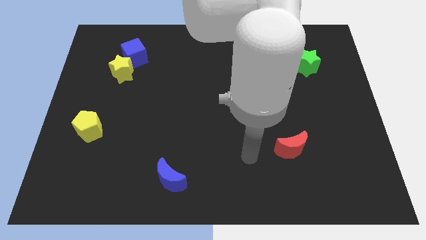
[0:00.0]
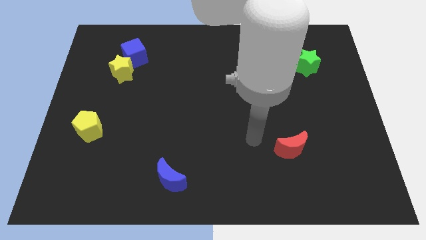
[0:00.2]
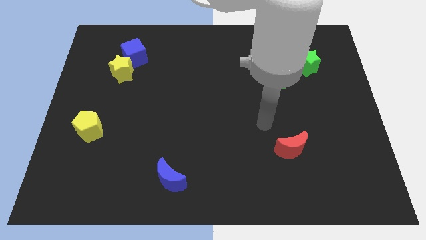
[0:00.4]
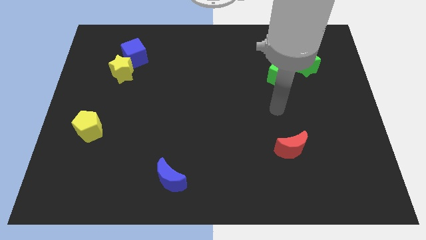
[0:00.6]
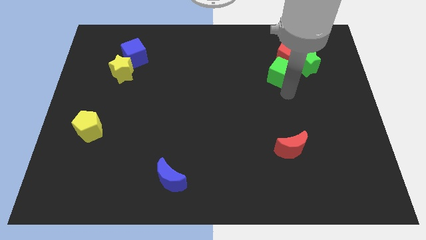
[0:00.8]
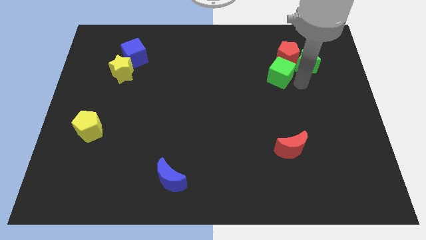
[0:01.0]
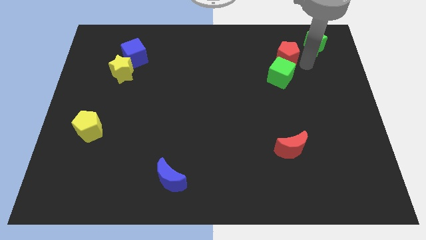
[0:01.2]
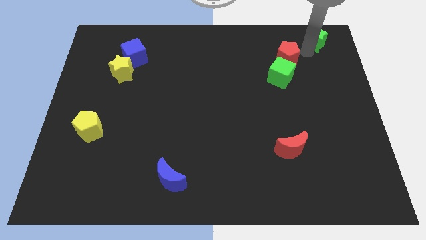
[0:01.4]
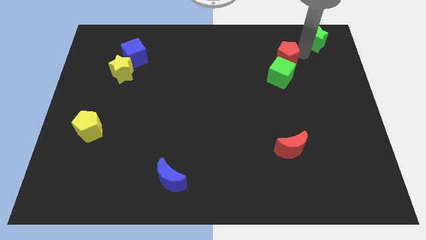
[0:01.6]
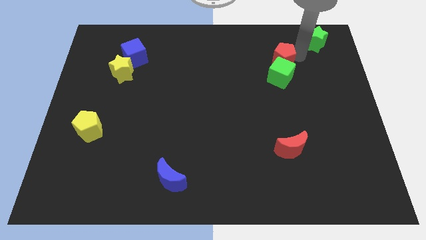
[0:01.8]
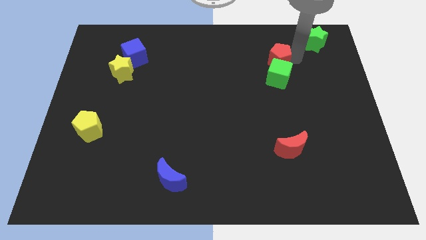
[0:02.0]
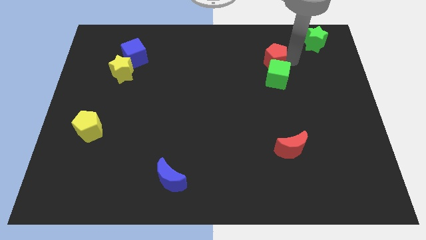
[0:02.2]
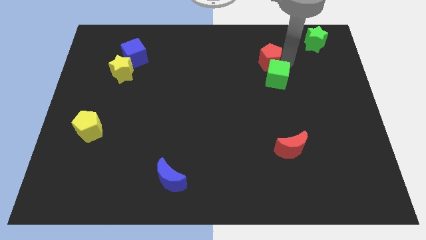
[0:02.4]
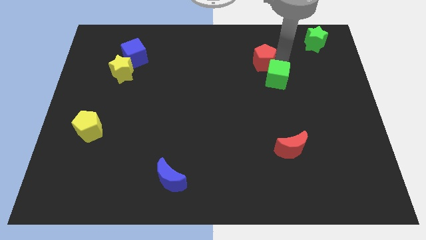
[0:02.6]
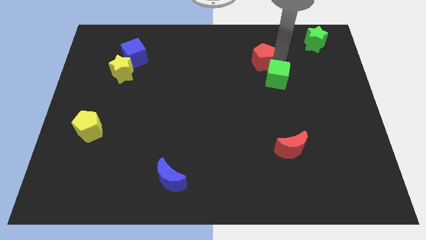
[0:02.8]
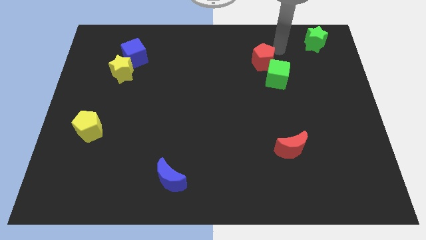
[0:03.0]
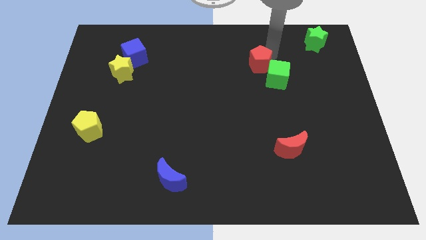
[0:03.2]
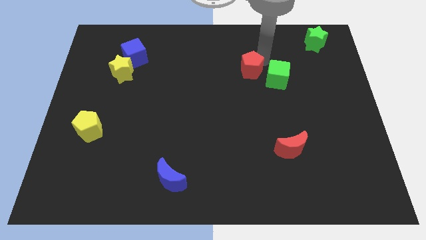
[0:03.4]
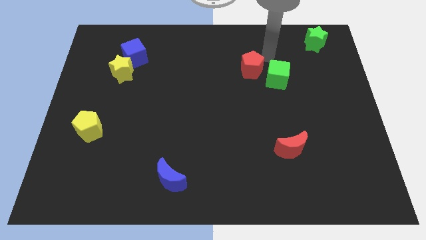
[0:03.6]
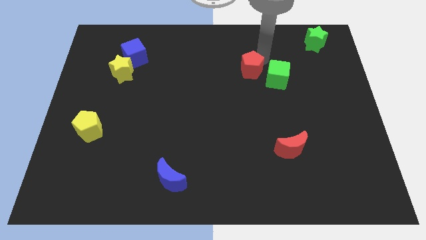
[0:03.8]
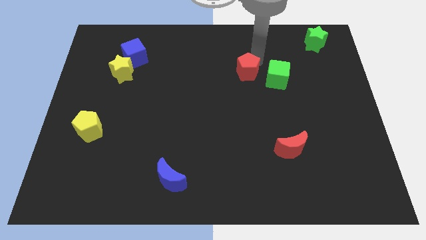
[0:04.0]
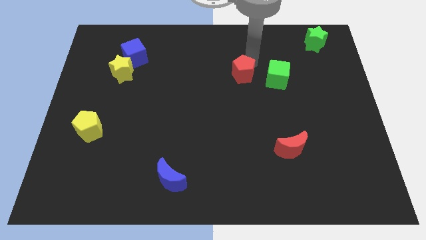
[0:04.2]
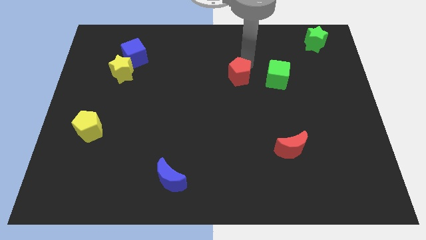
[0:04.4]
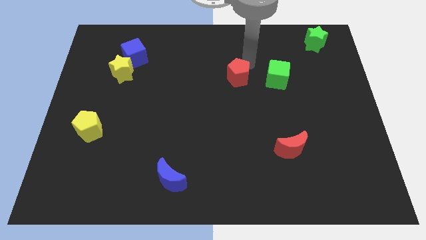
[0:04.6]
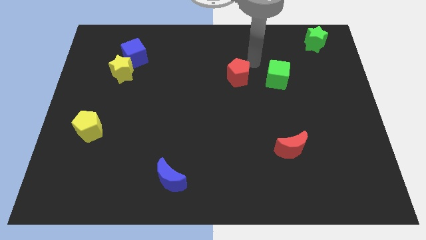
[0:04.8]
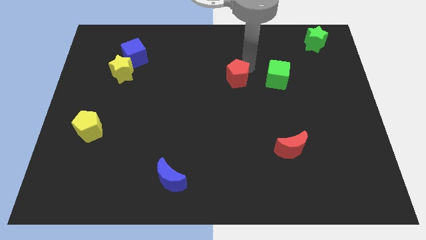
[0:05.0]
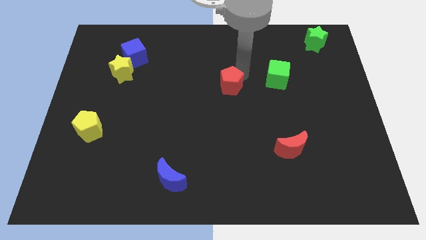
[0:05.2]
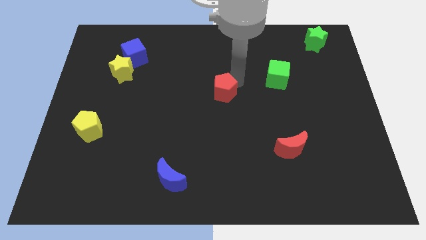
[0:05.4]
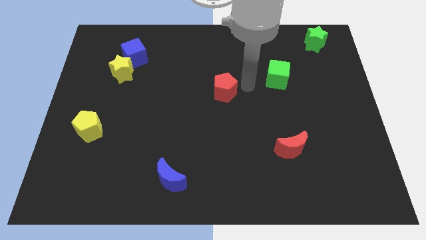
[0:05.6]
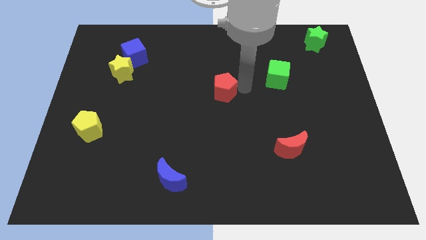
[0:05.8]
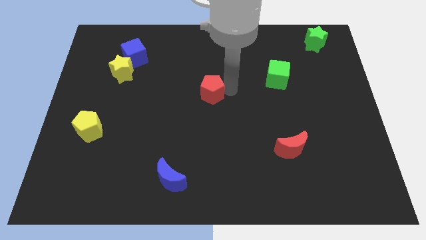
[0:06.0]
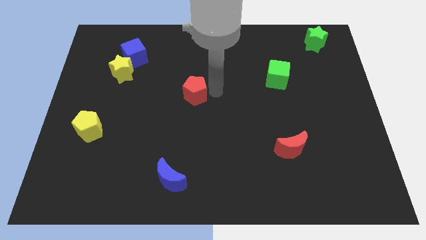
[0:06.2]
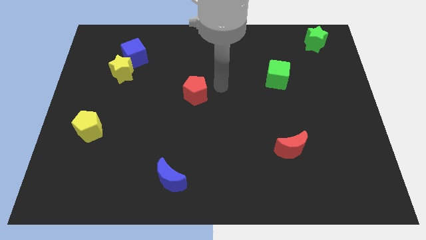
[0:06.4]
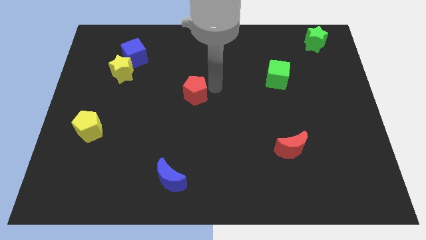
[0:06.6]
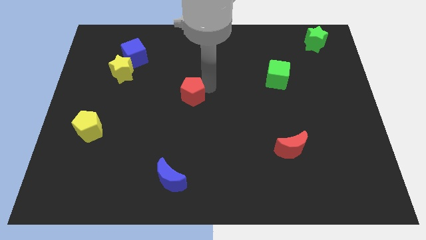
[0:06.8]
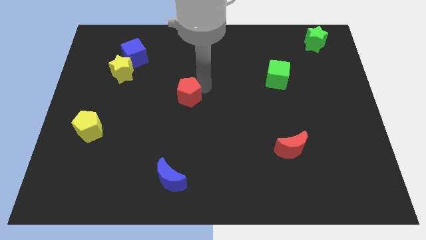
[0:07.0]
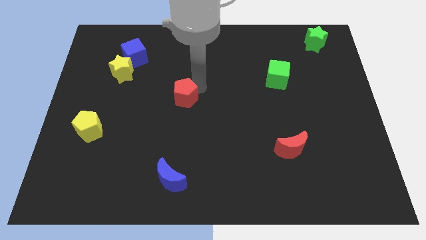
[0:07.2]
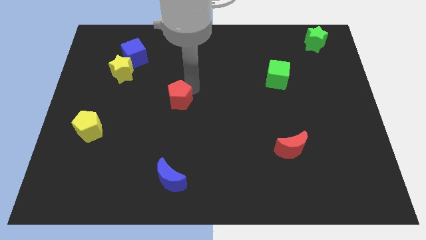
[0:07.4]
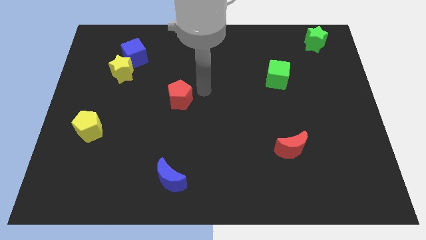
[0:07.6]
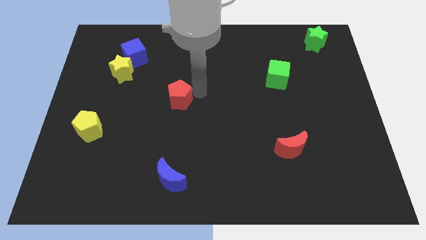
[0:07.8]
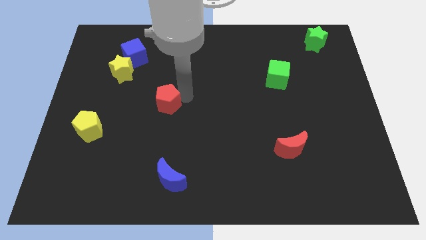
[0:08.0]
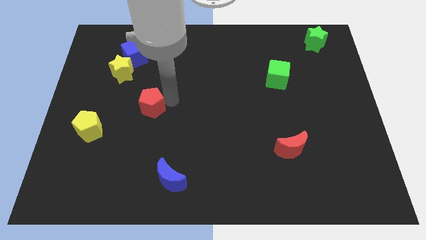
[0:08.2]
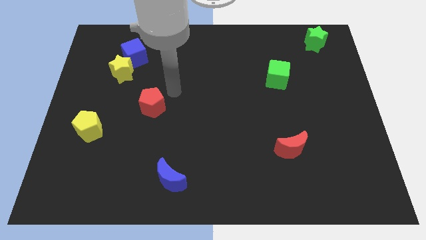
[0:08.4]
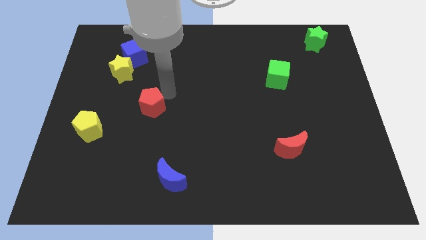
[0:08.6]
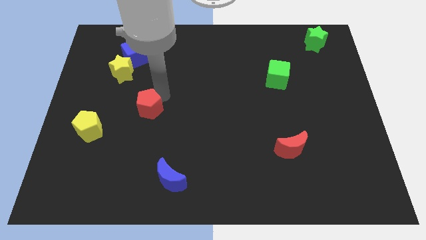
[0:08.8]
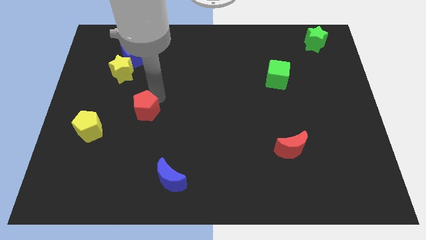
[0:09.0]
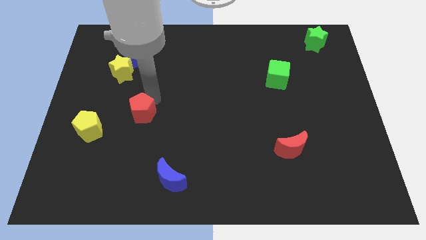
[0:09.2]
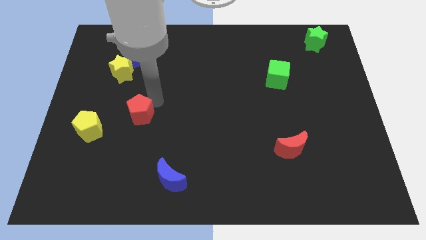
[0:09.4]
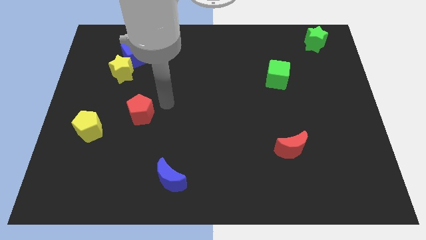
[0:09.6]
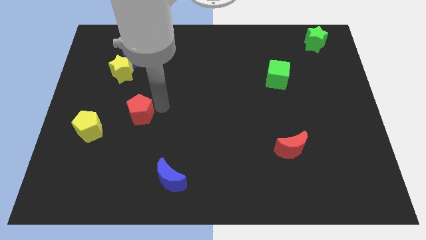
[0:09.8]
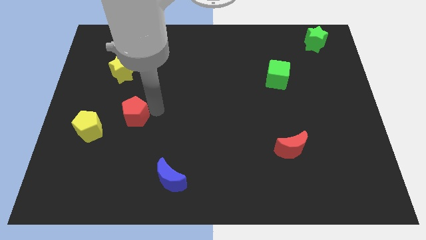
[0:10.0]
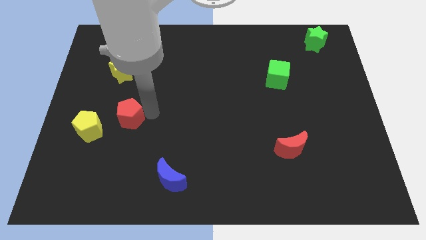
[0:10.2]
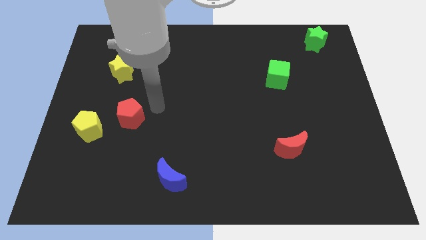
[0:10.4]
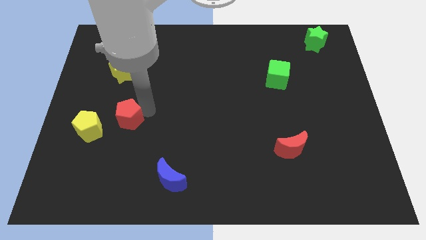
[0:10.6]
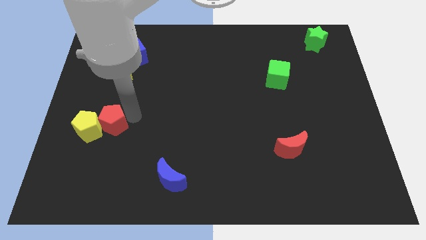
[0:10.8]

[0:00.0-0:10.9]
put the red pentagon towards the yellow pentagon

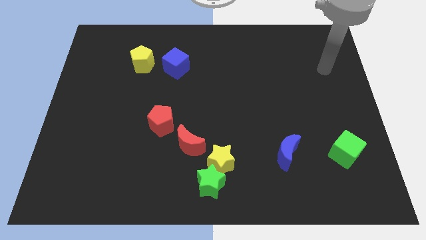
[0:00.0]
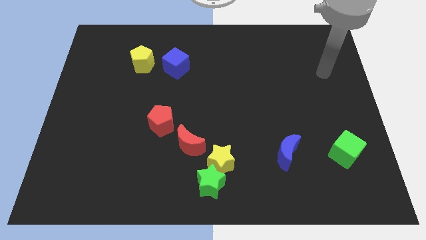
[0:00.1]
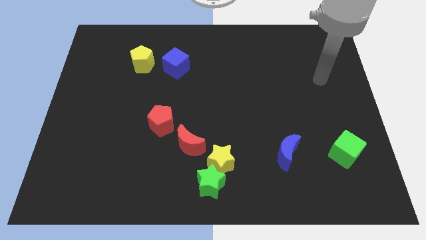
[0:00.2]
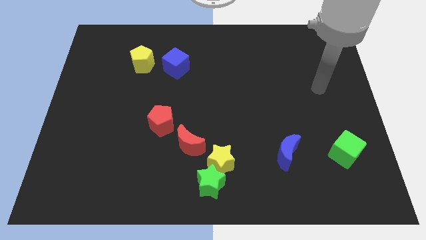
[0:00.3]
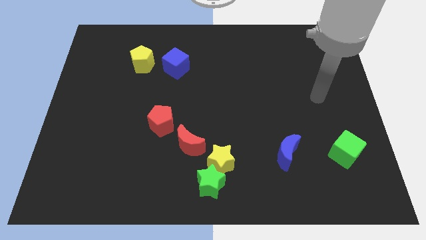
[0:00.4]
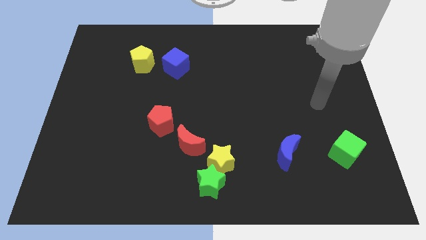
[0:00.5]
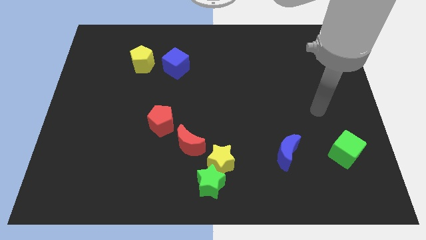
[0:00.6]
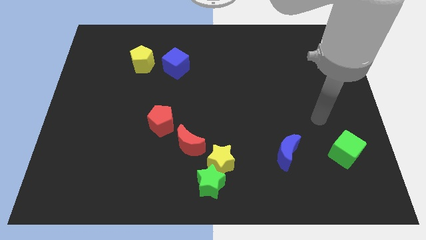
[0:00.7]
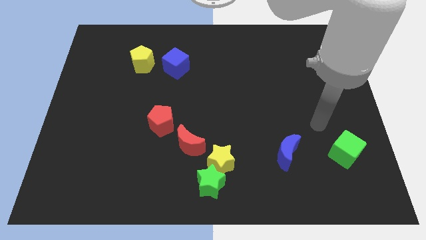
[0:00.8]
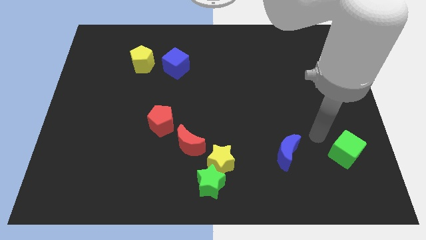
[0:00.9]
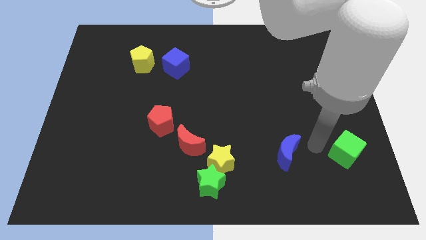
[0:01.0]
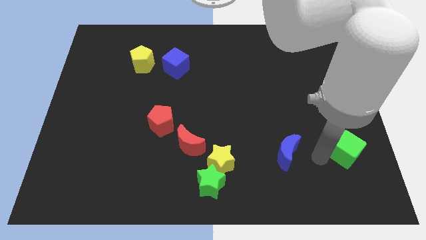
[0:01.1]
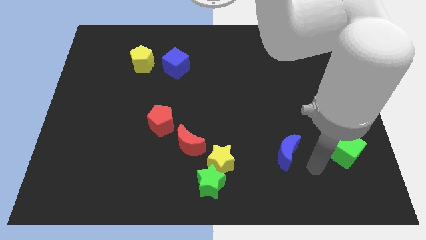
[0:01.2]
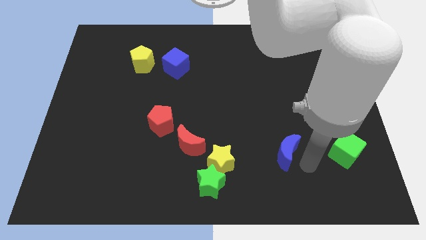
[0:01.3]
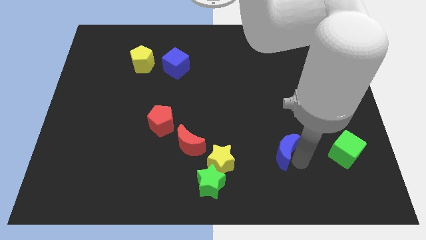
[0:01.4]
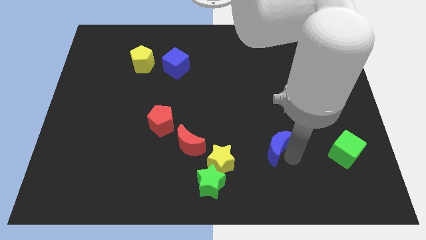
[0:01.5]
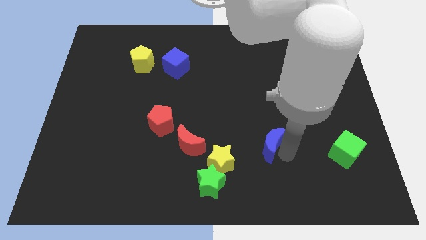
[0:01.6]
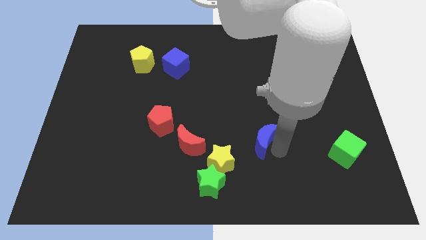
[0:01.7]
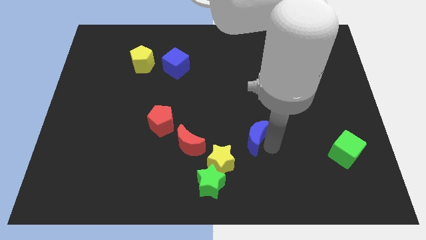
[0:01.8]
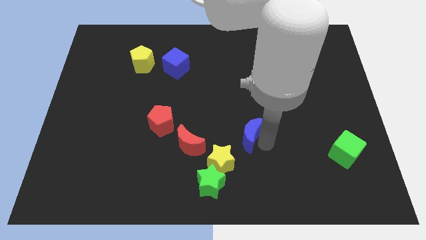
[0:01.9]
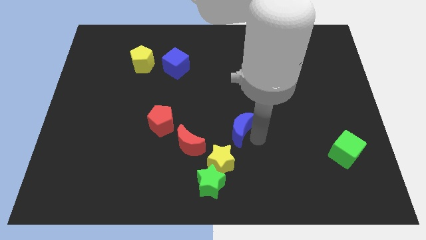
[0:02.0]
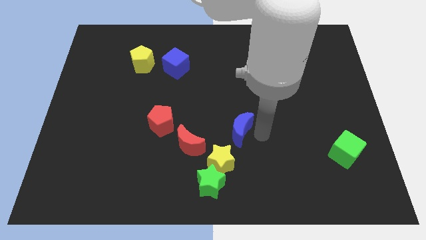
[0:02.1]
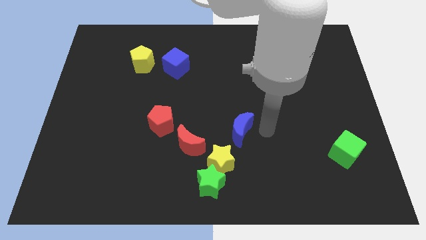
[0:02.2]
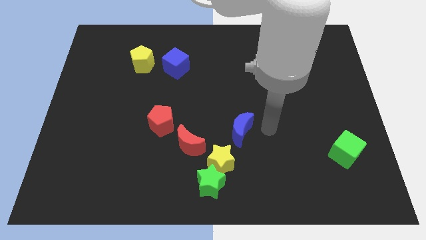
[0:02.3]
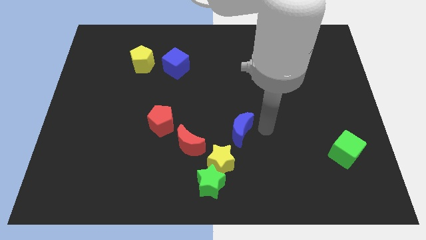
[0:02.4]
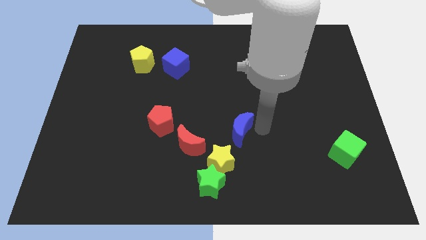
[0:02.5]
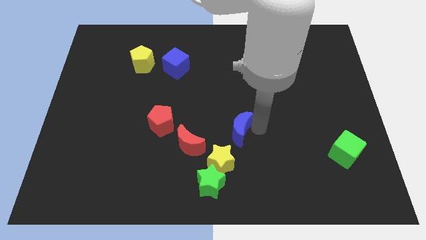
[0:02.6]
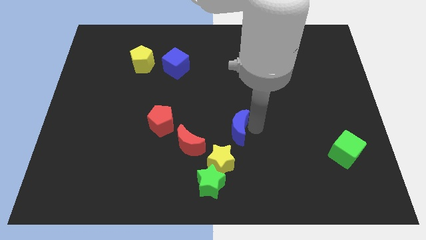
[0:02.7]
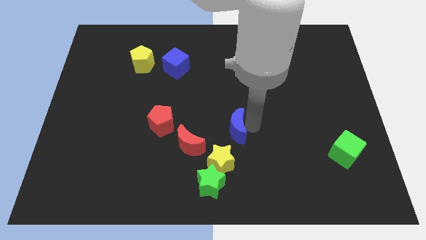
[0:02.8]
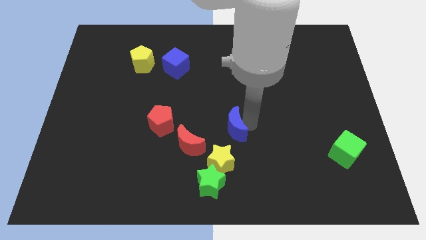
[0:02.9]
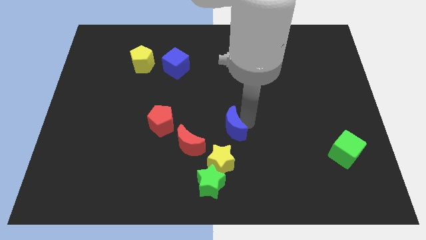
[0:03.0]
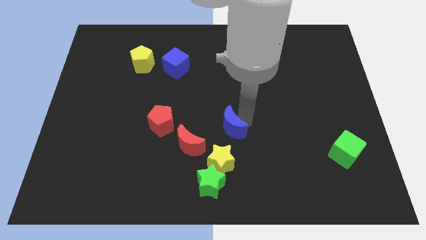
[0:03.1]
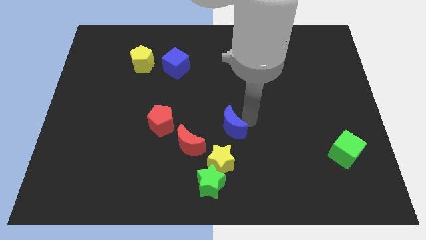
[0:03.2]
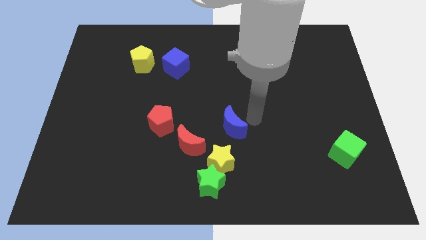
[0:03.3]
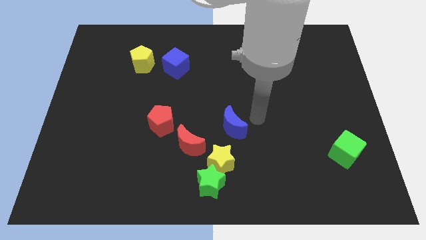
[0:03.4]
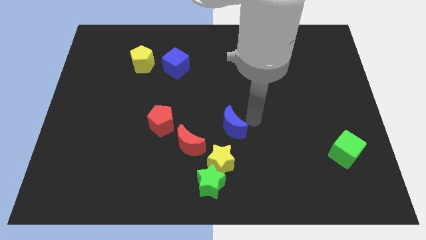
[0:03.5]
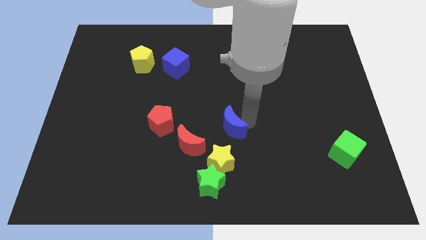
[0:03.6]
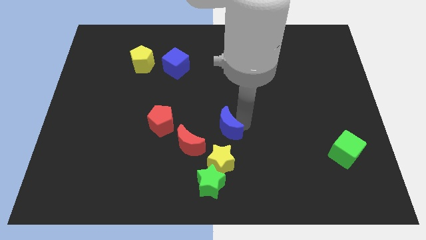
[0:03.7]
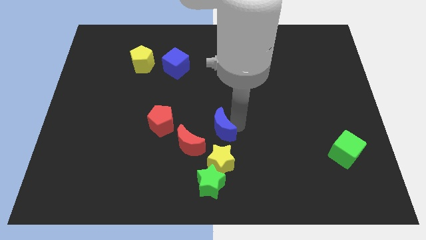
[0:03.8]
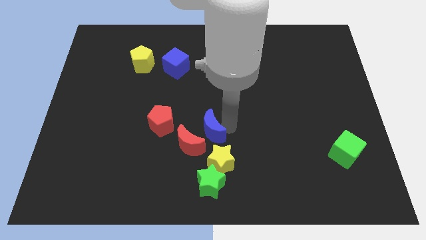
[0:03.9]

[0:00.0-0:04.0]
slide the blue moon towards the red moon
